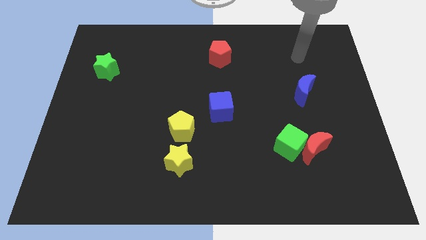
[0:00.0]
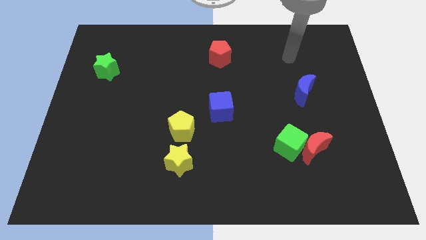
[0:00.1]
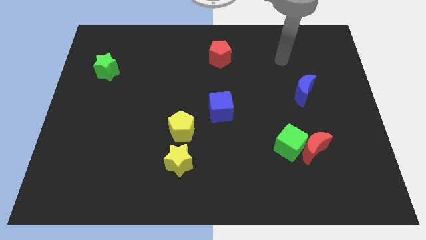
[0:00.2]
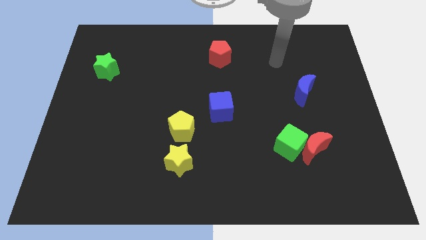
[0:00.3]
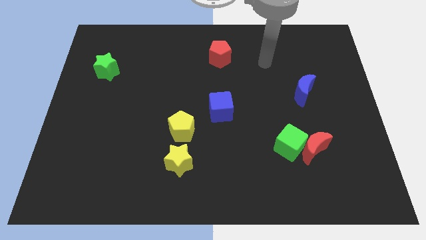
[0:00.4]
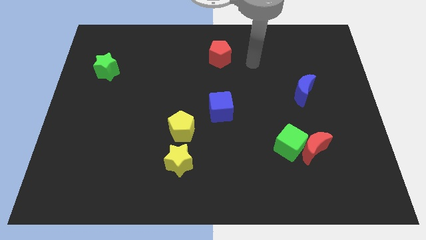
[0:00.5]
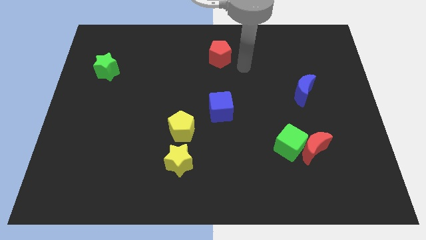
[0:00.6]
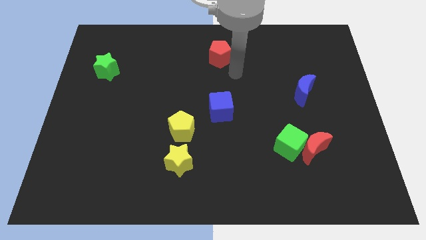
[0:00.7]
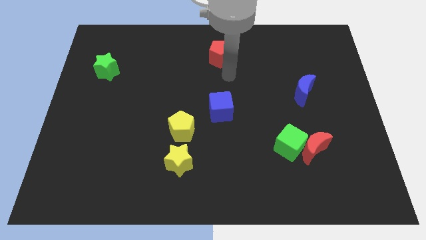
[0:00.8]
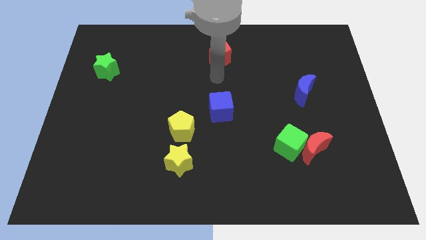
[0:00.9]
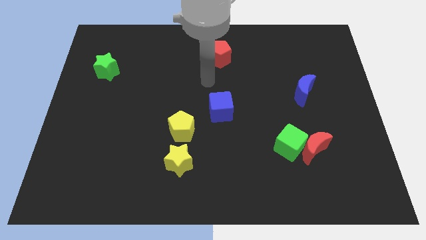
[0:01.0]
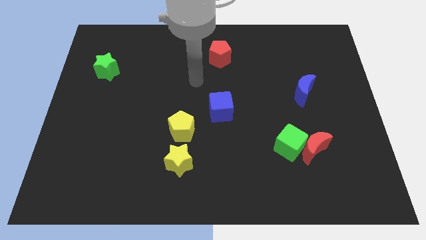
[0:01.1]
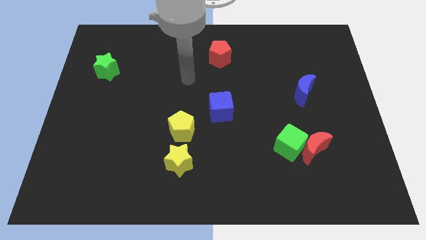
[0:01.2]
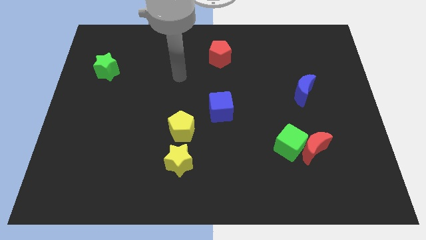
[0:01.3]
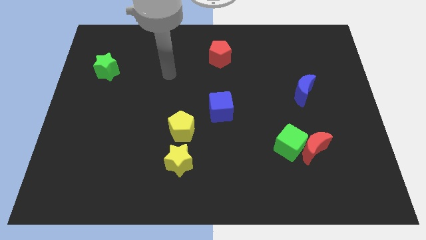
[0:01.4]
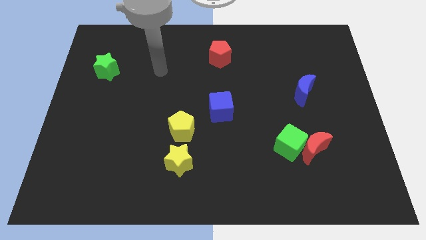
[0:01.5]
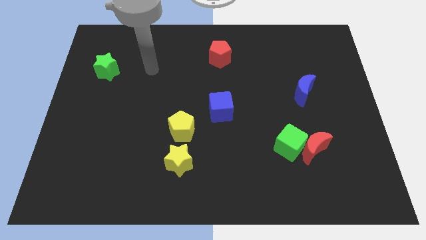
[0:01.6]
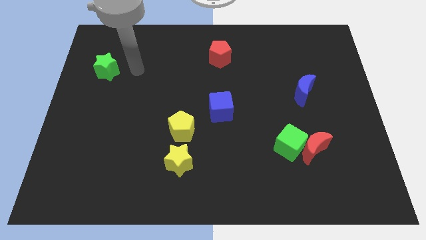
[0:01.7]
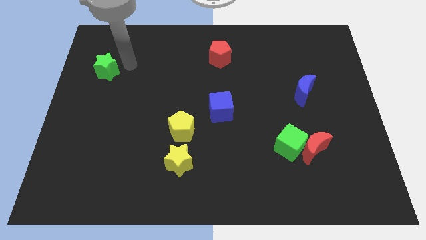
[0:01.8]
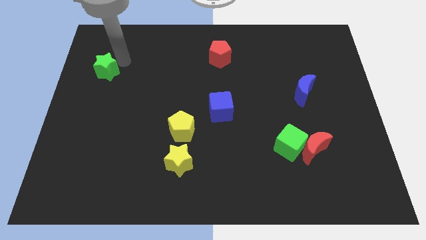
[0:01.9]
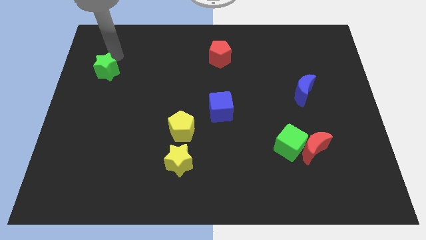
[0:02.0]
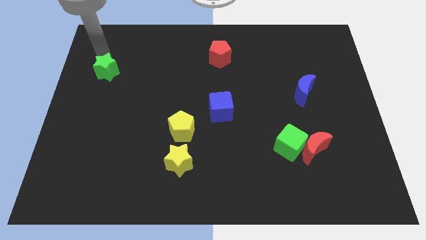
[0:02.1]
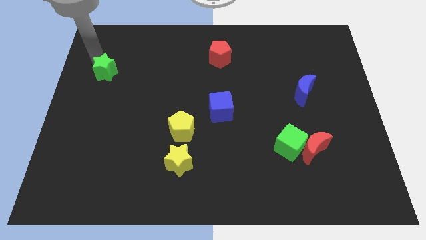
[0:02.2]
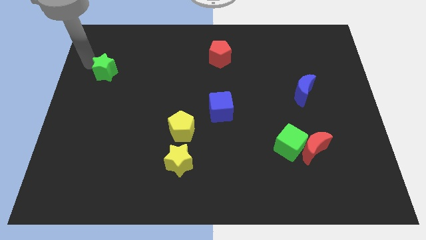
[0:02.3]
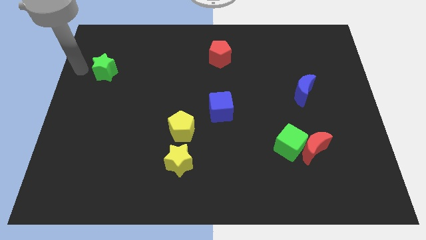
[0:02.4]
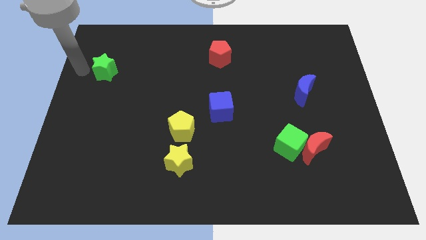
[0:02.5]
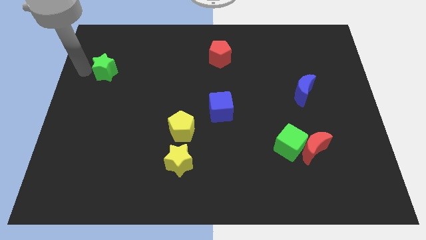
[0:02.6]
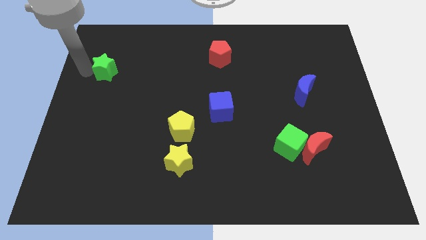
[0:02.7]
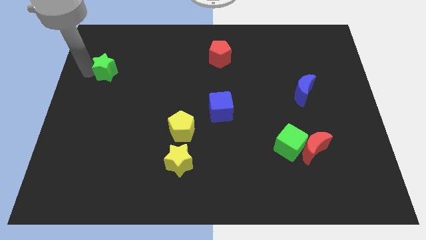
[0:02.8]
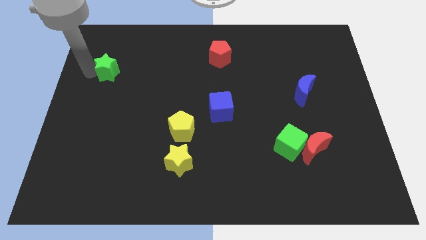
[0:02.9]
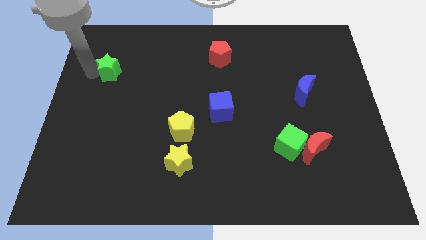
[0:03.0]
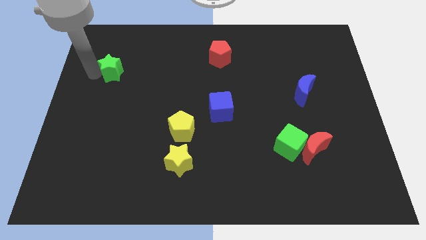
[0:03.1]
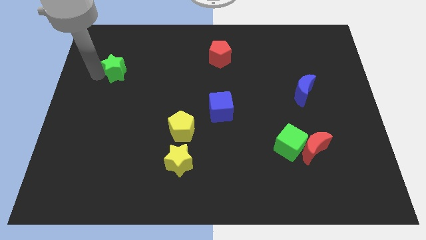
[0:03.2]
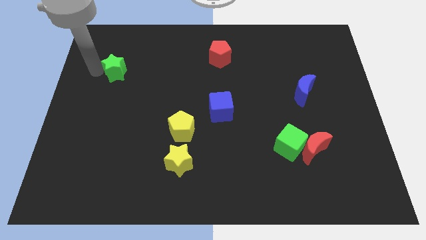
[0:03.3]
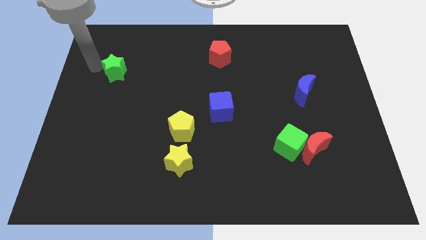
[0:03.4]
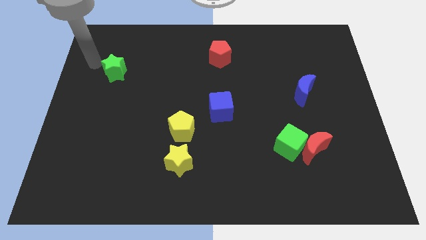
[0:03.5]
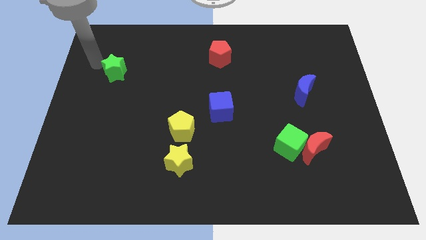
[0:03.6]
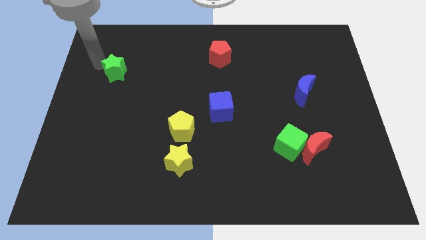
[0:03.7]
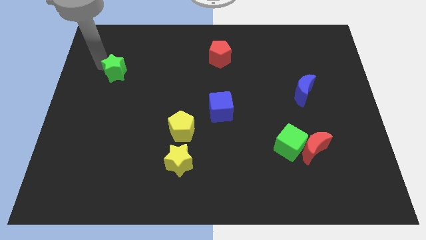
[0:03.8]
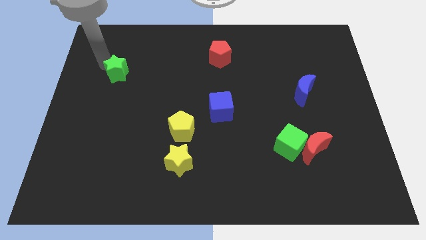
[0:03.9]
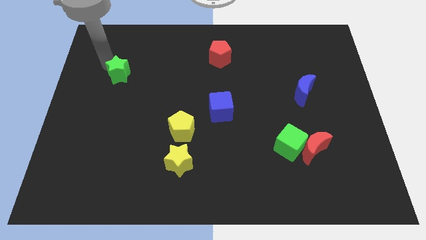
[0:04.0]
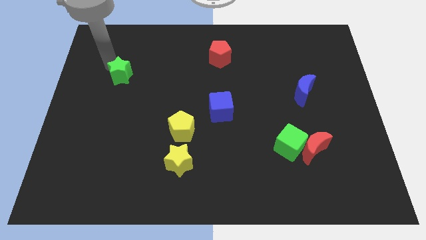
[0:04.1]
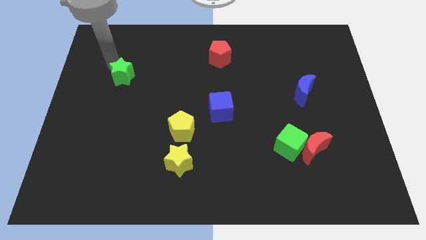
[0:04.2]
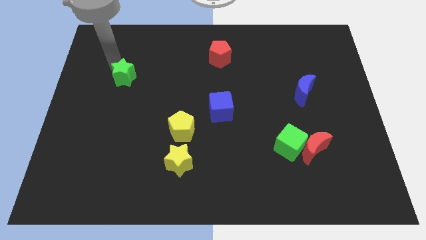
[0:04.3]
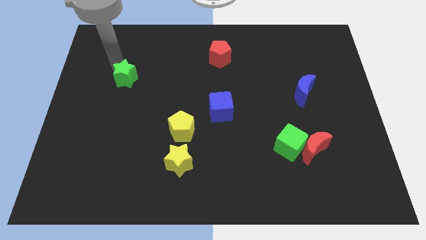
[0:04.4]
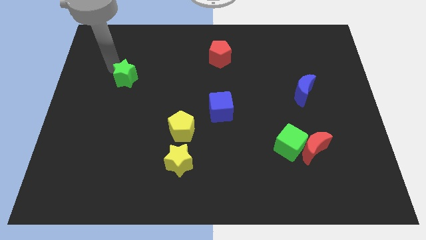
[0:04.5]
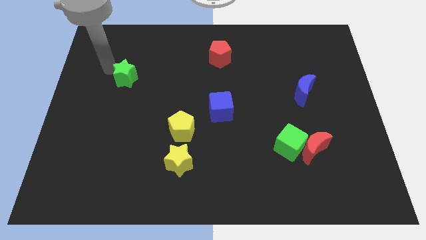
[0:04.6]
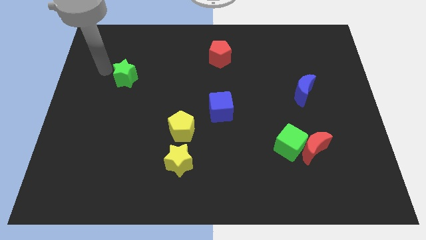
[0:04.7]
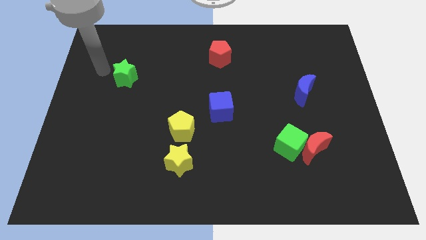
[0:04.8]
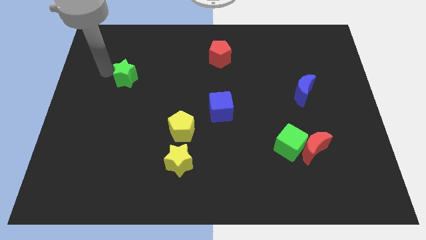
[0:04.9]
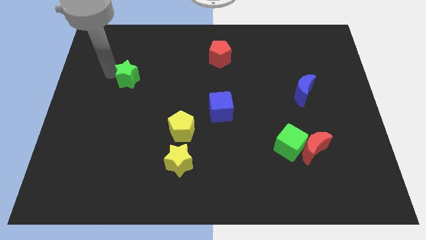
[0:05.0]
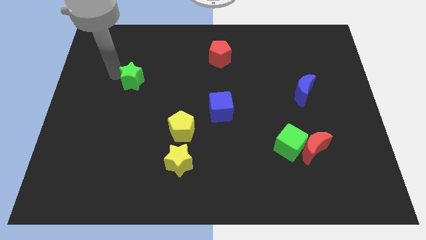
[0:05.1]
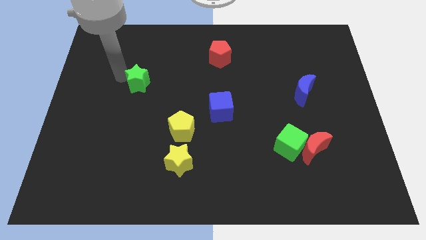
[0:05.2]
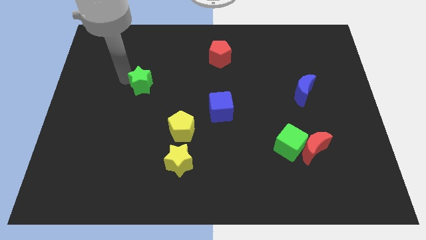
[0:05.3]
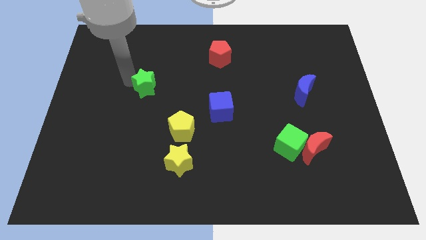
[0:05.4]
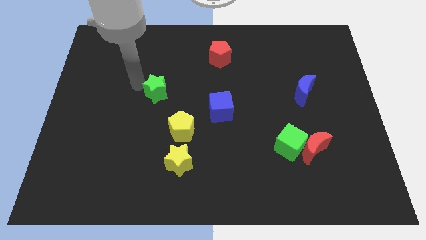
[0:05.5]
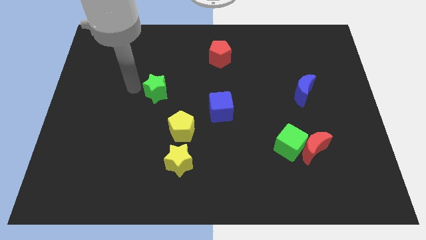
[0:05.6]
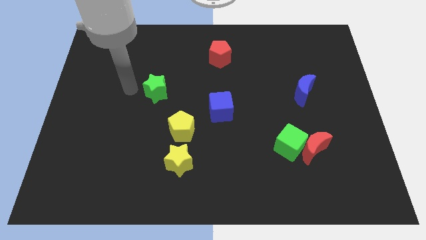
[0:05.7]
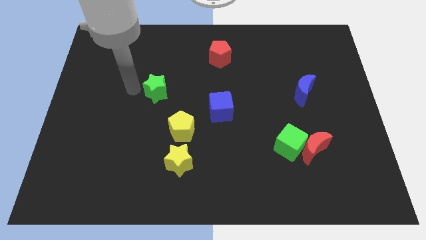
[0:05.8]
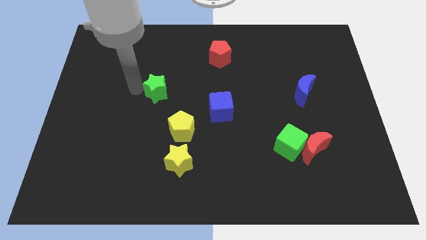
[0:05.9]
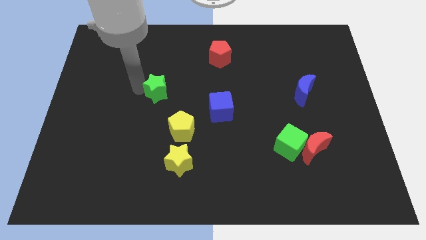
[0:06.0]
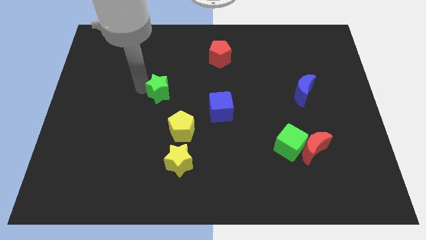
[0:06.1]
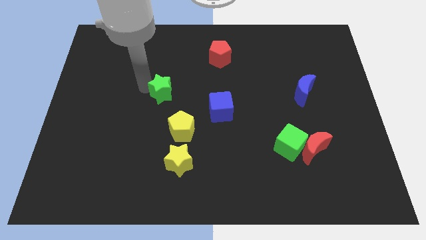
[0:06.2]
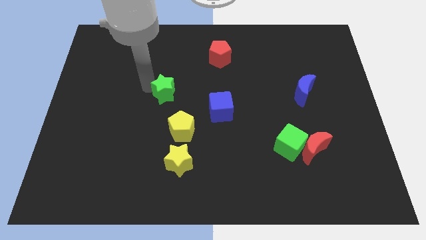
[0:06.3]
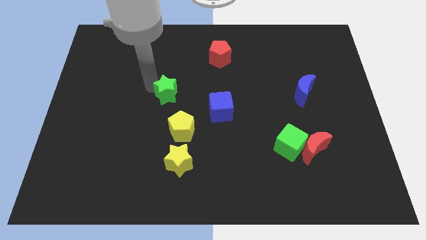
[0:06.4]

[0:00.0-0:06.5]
put the green star to the top side of the yellow pentagon

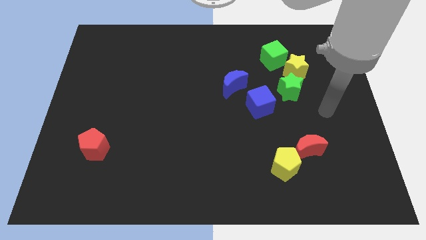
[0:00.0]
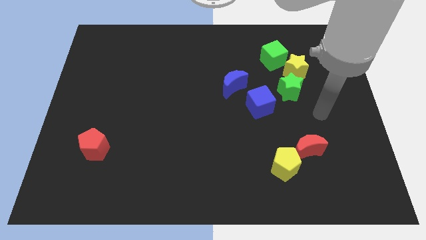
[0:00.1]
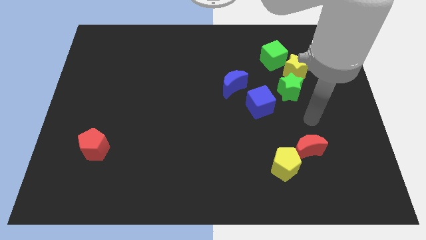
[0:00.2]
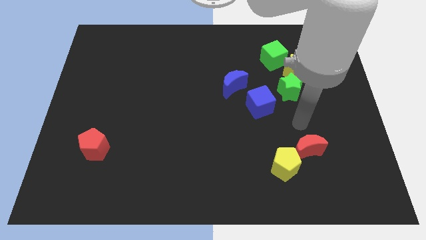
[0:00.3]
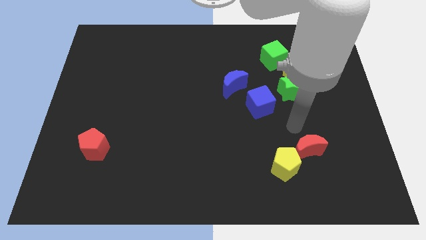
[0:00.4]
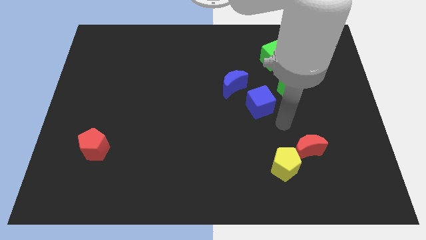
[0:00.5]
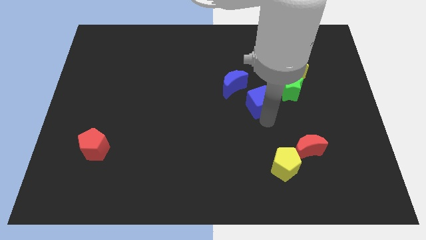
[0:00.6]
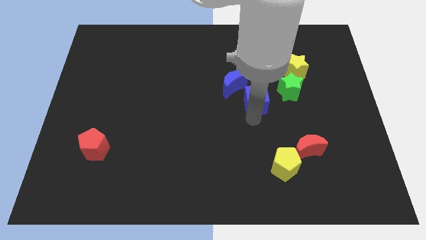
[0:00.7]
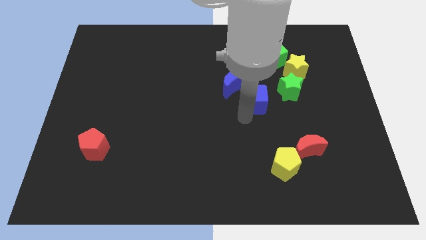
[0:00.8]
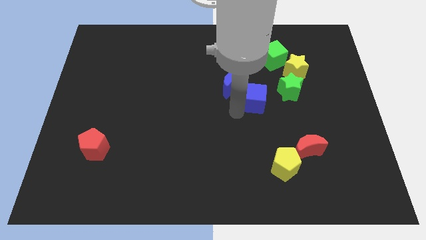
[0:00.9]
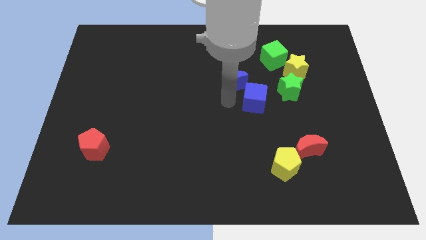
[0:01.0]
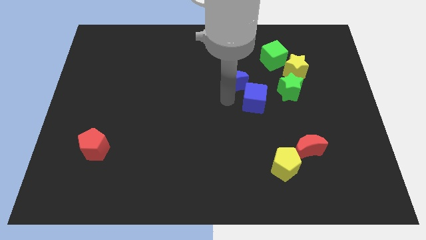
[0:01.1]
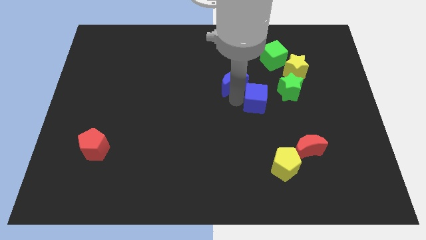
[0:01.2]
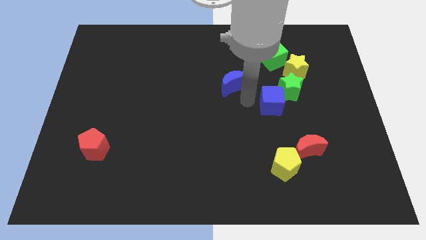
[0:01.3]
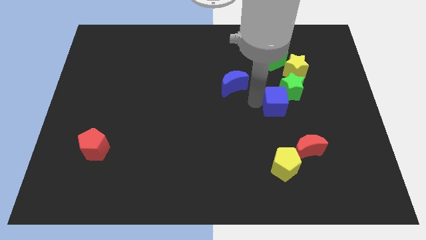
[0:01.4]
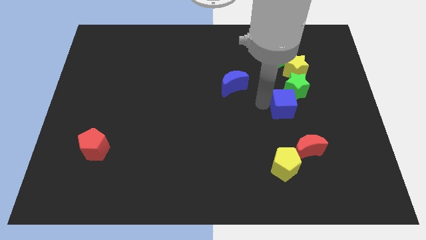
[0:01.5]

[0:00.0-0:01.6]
put the blue cube below the yellow star
